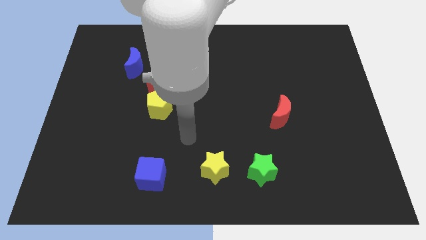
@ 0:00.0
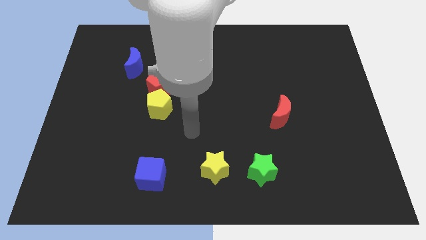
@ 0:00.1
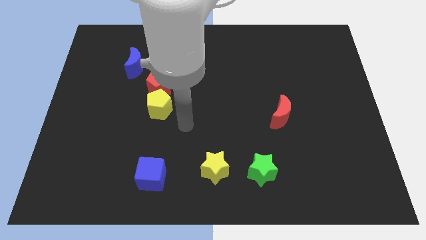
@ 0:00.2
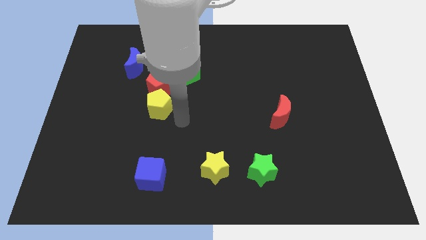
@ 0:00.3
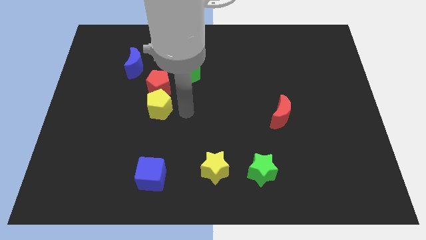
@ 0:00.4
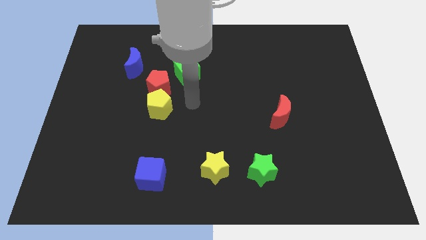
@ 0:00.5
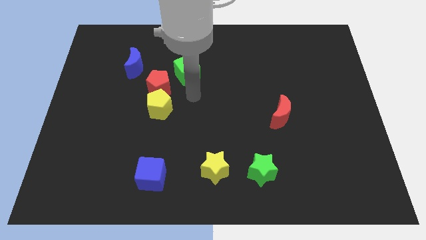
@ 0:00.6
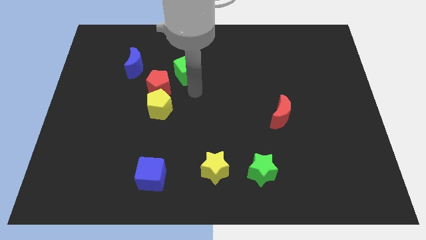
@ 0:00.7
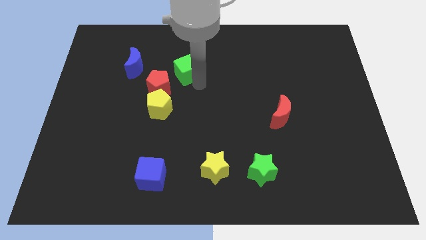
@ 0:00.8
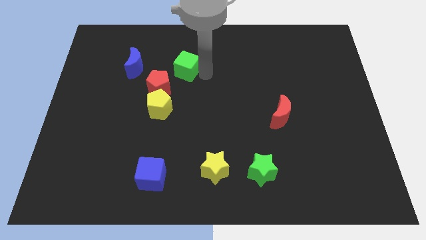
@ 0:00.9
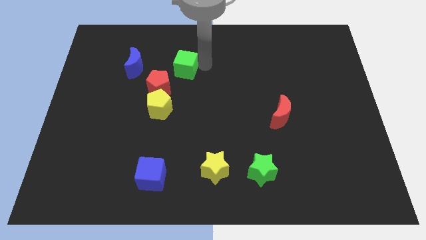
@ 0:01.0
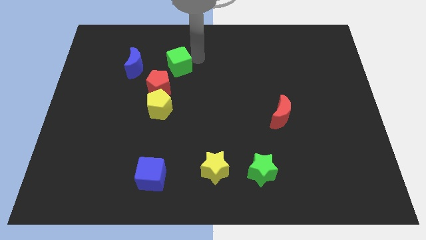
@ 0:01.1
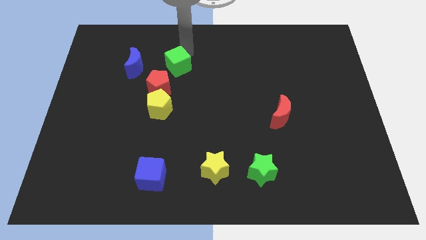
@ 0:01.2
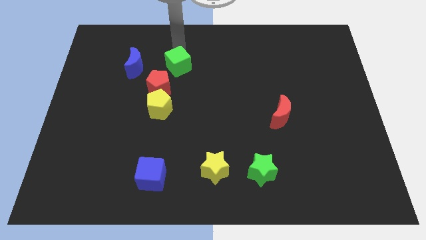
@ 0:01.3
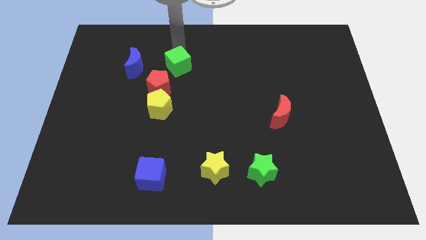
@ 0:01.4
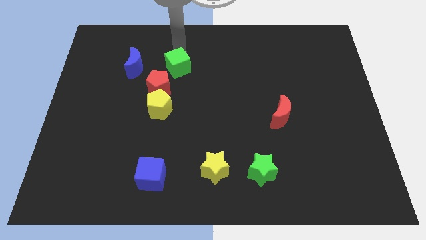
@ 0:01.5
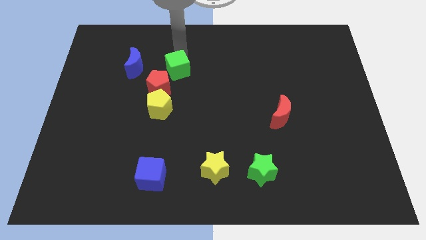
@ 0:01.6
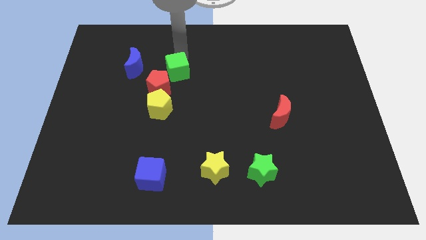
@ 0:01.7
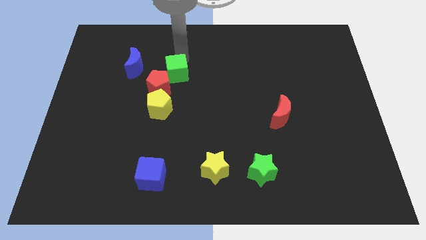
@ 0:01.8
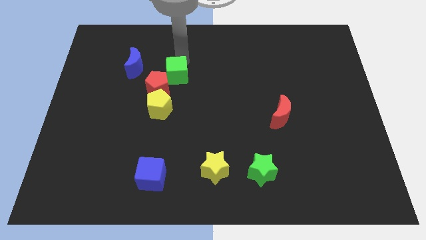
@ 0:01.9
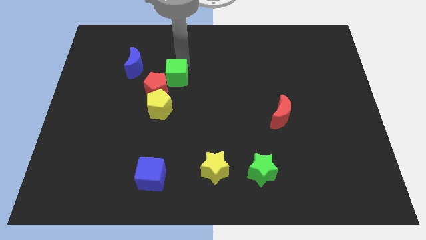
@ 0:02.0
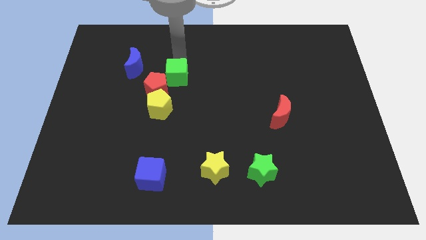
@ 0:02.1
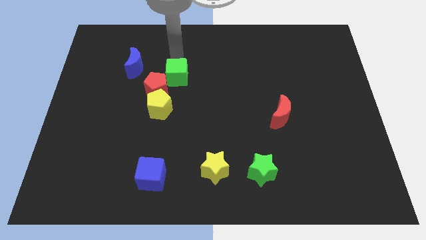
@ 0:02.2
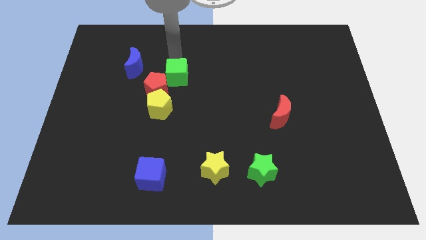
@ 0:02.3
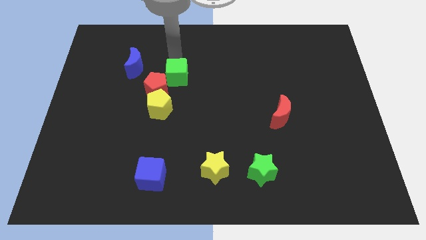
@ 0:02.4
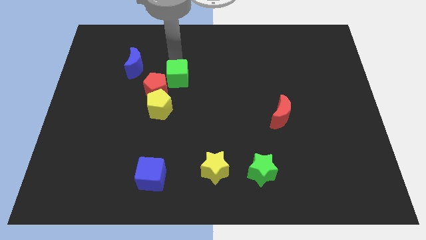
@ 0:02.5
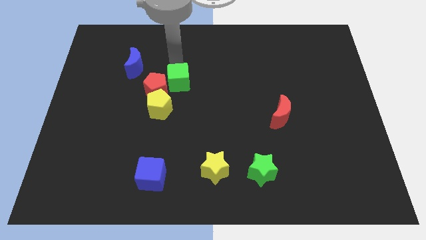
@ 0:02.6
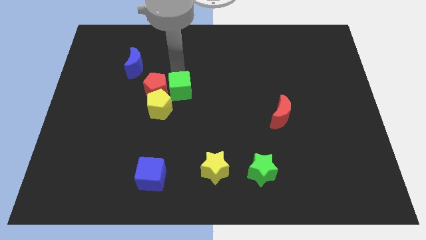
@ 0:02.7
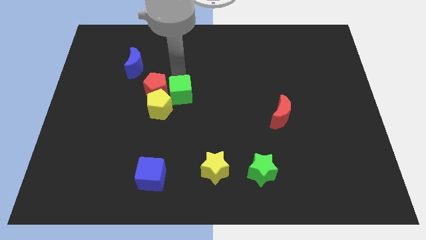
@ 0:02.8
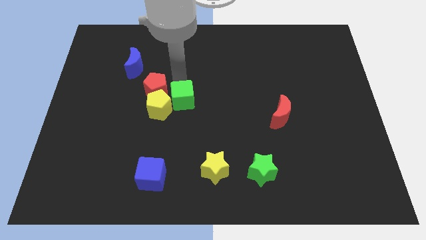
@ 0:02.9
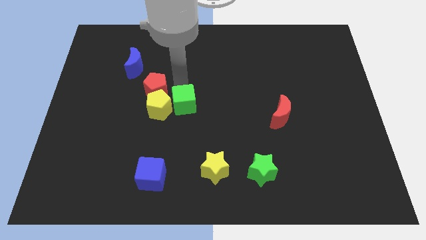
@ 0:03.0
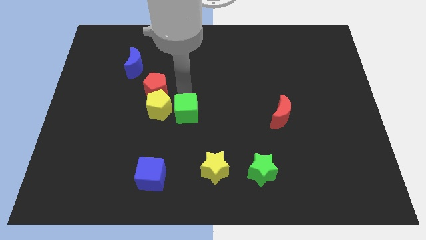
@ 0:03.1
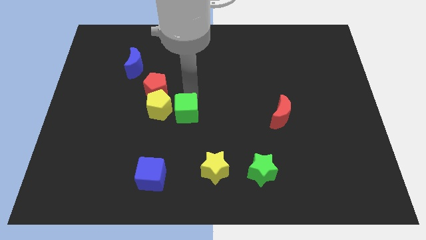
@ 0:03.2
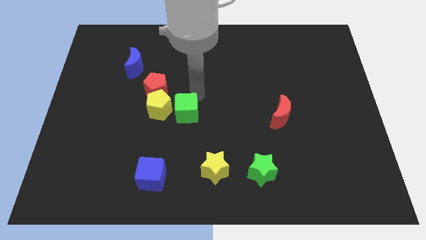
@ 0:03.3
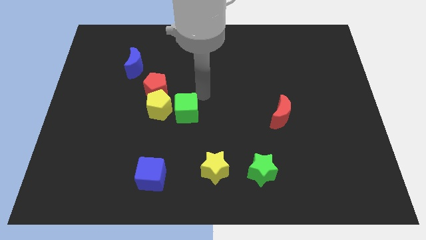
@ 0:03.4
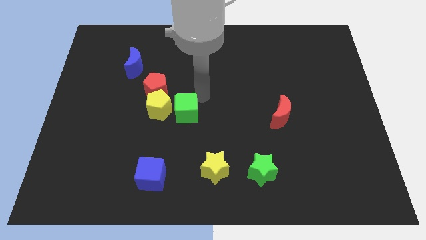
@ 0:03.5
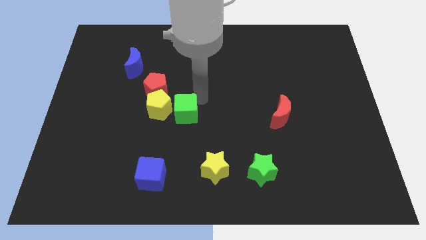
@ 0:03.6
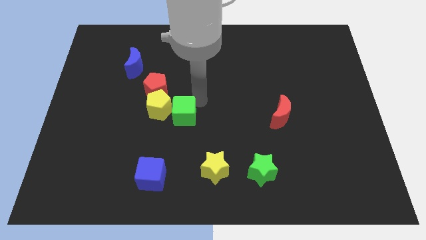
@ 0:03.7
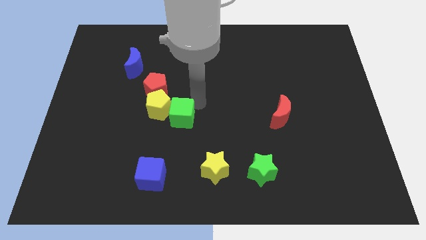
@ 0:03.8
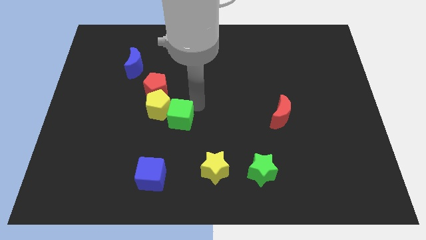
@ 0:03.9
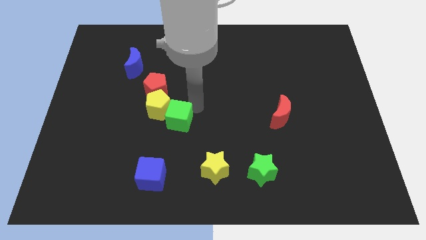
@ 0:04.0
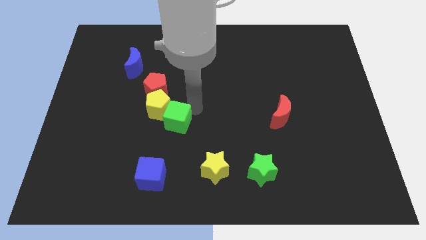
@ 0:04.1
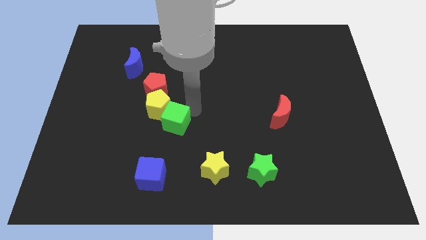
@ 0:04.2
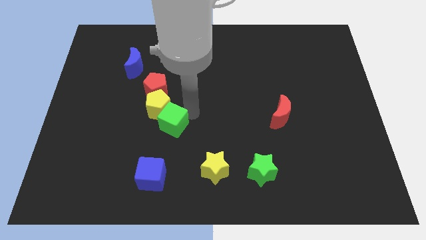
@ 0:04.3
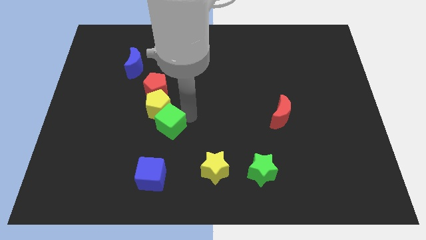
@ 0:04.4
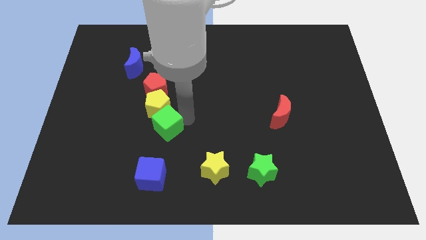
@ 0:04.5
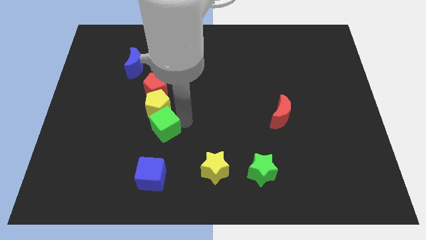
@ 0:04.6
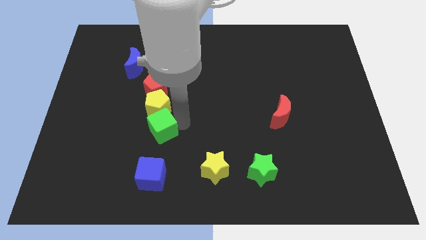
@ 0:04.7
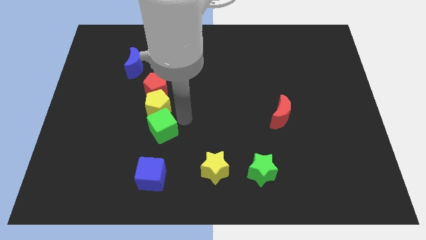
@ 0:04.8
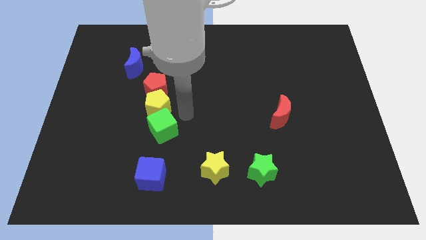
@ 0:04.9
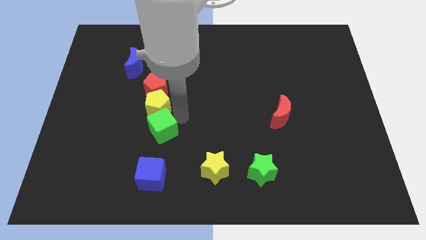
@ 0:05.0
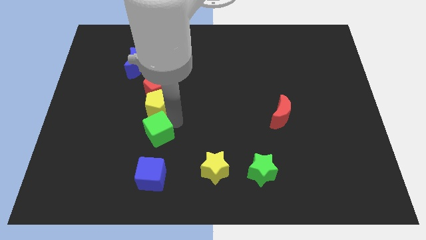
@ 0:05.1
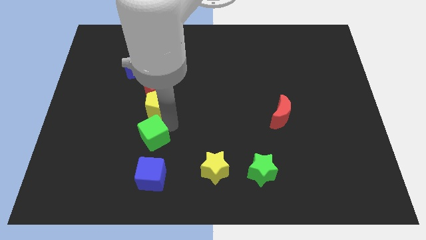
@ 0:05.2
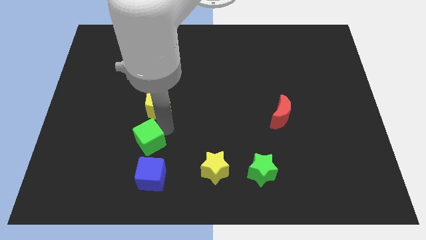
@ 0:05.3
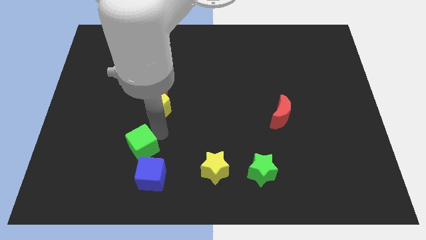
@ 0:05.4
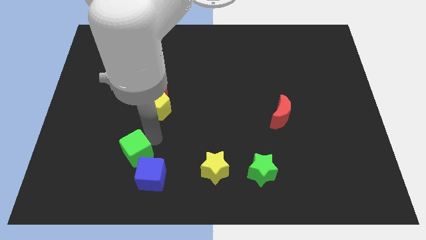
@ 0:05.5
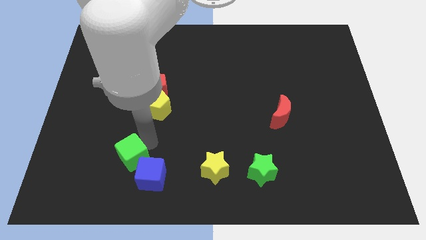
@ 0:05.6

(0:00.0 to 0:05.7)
put the green cube just left of the blue cube
